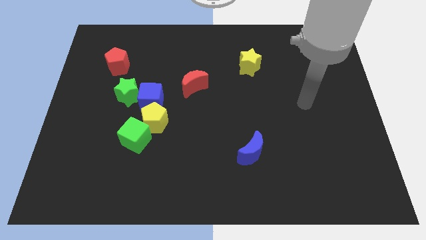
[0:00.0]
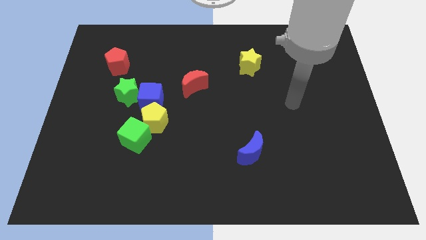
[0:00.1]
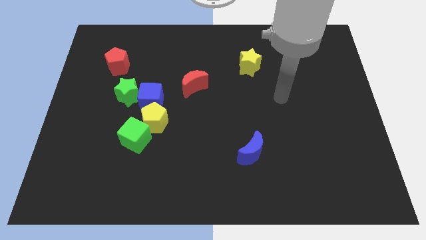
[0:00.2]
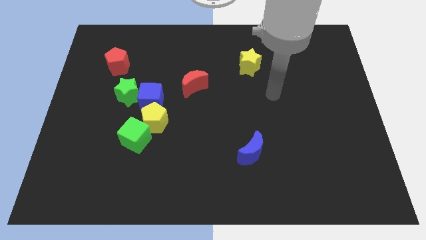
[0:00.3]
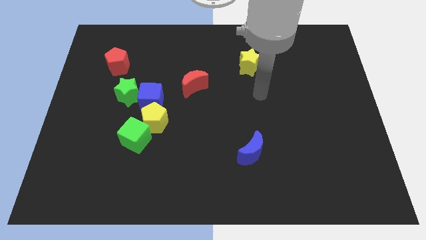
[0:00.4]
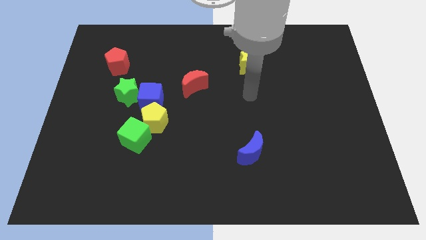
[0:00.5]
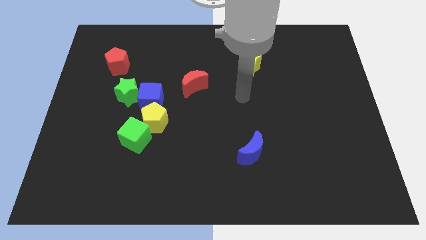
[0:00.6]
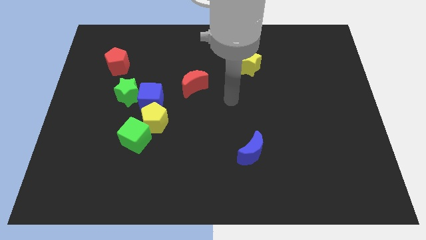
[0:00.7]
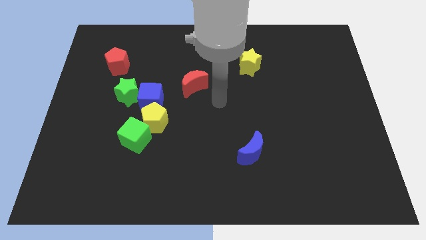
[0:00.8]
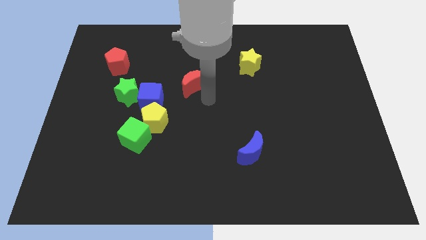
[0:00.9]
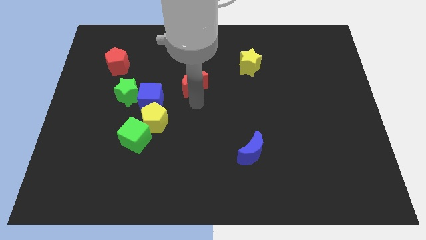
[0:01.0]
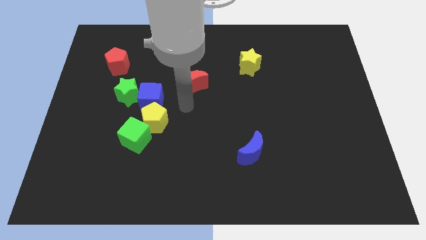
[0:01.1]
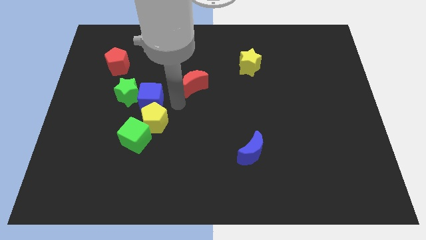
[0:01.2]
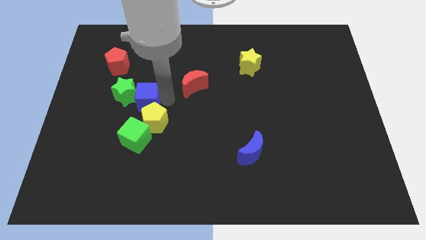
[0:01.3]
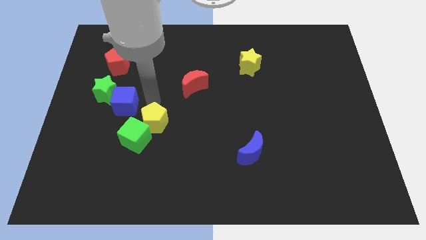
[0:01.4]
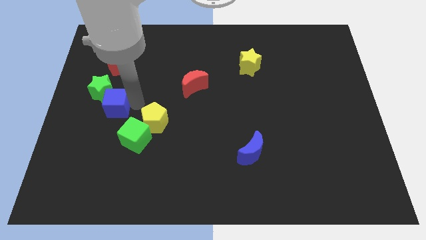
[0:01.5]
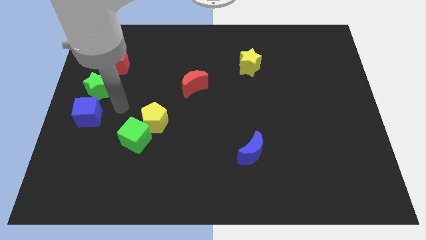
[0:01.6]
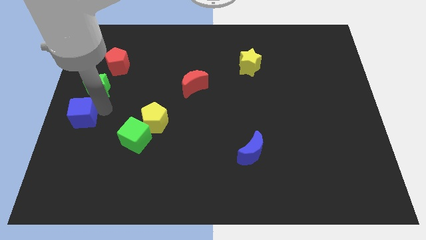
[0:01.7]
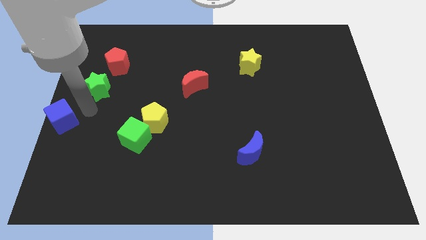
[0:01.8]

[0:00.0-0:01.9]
move the green star away from the blue cube

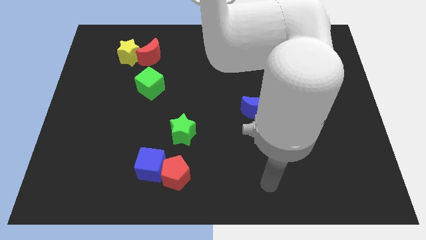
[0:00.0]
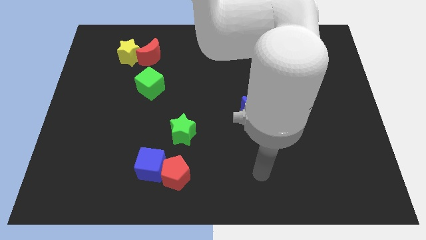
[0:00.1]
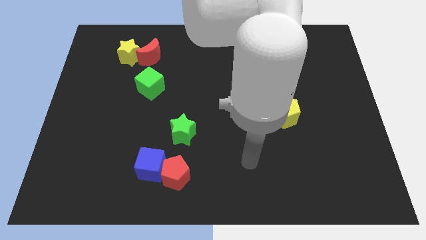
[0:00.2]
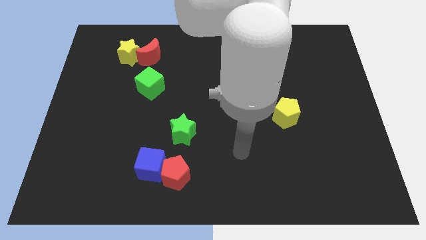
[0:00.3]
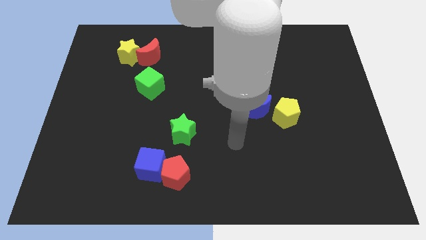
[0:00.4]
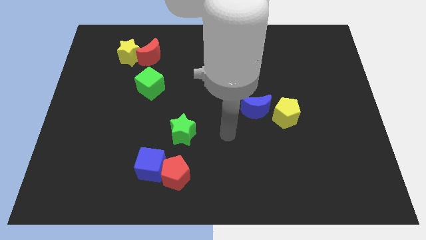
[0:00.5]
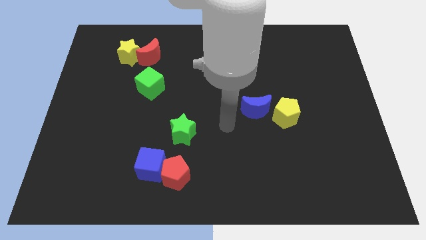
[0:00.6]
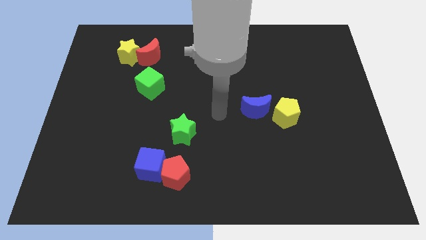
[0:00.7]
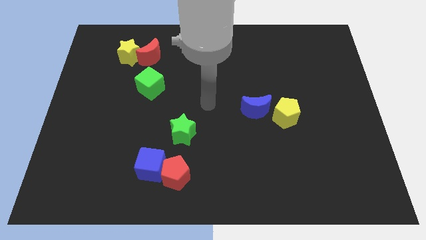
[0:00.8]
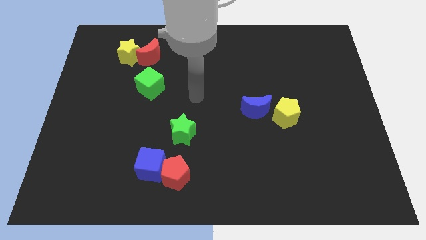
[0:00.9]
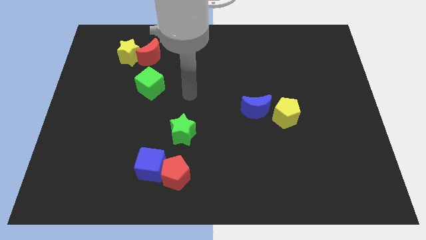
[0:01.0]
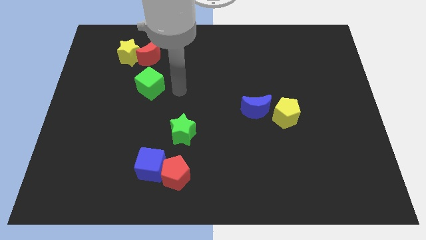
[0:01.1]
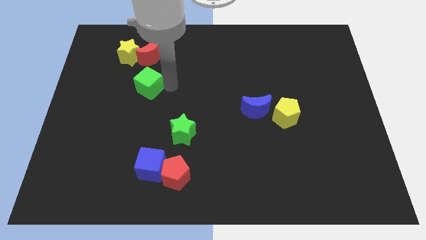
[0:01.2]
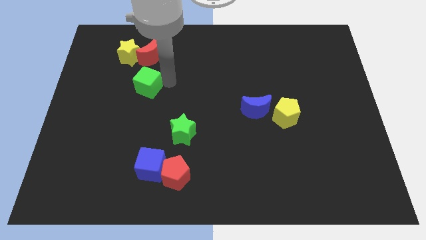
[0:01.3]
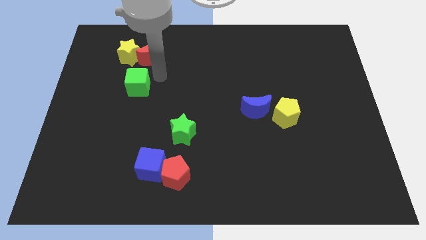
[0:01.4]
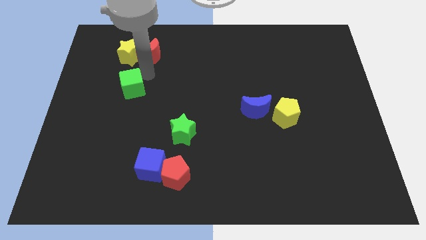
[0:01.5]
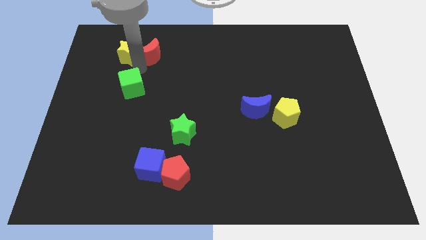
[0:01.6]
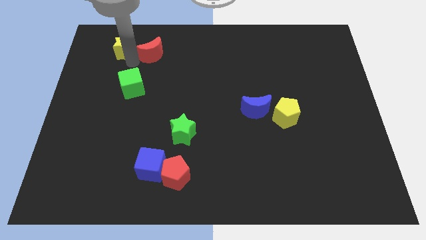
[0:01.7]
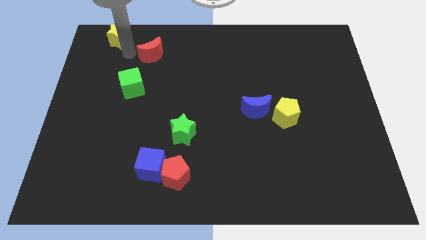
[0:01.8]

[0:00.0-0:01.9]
pull the red moon apart from the yellow star

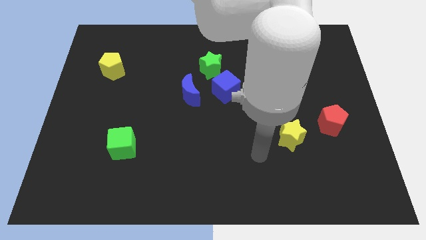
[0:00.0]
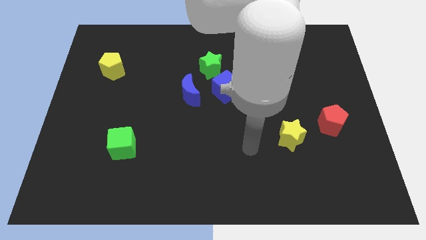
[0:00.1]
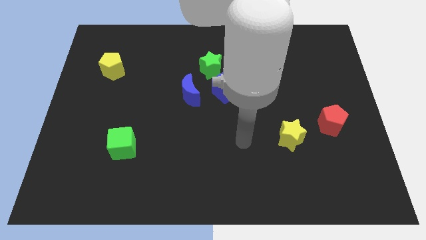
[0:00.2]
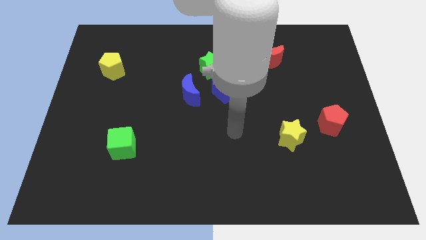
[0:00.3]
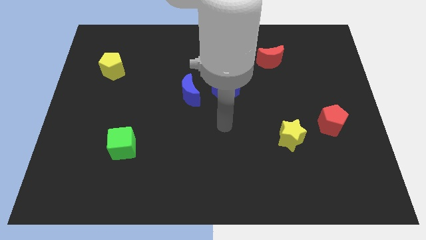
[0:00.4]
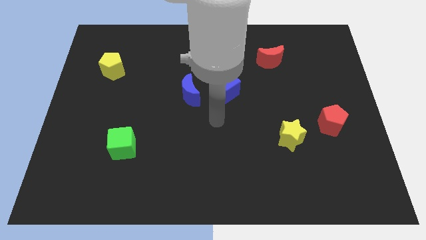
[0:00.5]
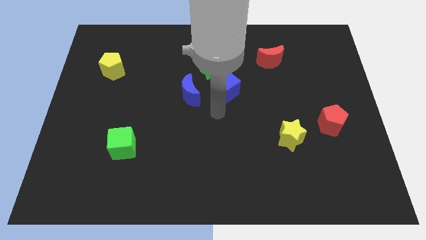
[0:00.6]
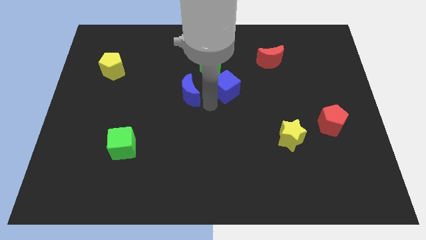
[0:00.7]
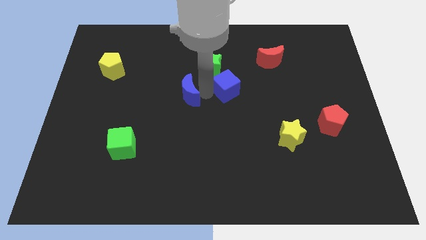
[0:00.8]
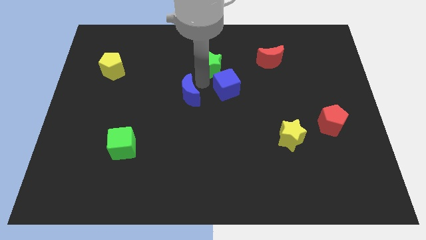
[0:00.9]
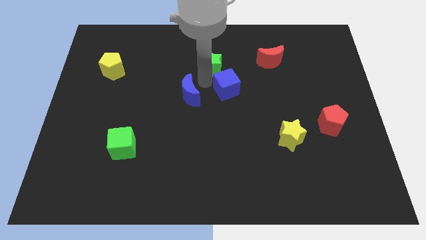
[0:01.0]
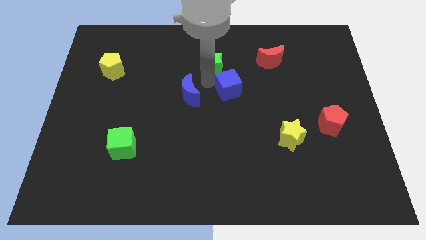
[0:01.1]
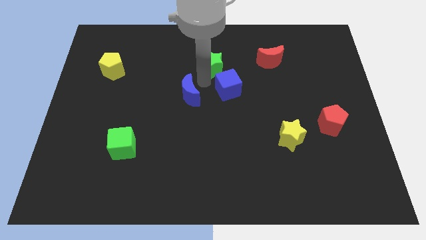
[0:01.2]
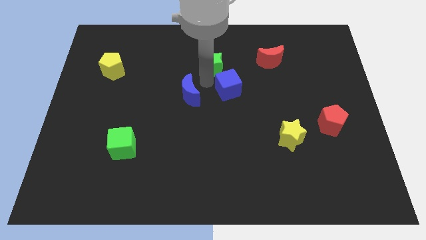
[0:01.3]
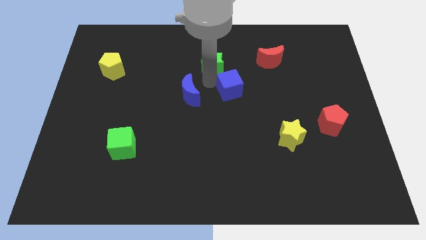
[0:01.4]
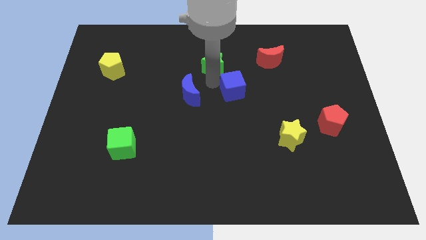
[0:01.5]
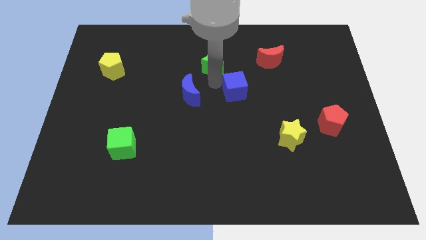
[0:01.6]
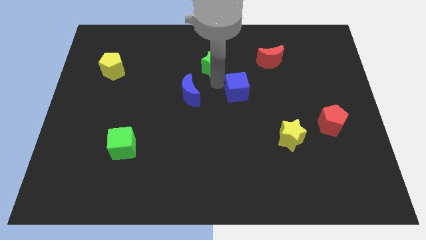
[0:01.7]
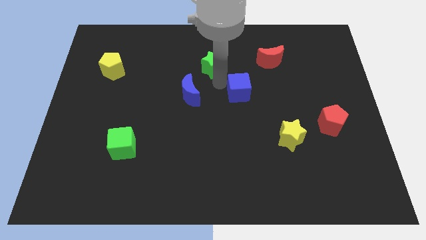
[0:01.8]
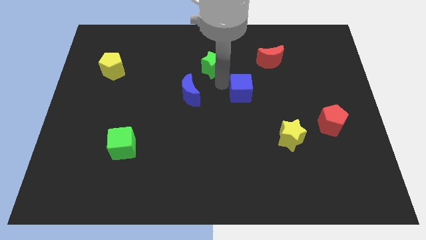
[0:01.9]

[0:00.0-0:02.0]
separate the blue cube from the green star and blue moon

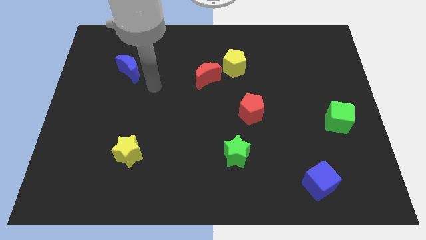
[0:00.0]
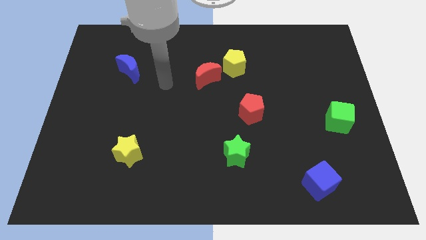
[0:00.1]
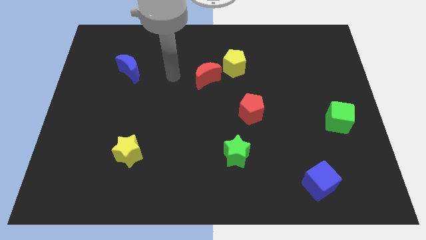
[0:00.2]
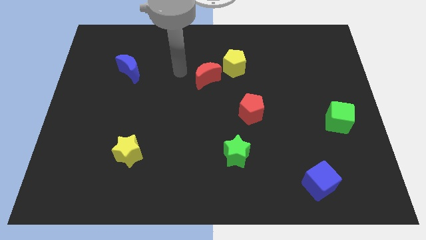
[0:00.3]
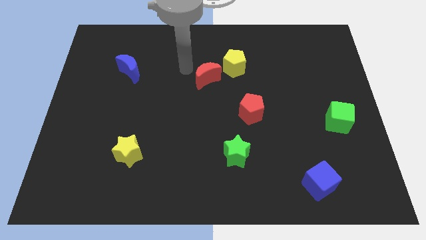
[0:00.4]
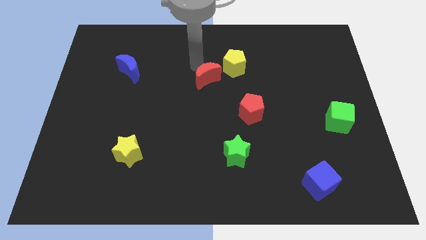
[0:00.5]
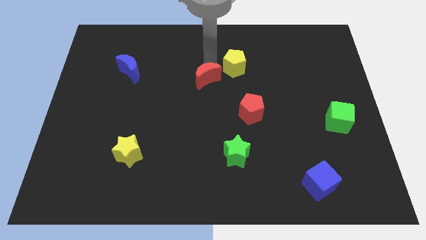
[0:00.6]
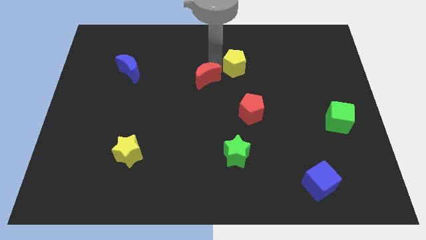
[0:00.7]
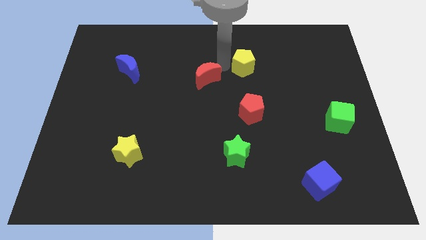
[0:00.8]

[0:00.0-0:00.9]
pull the red moon apart from the yellow pentagon

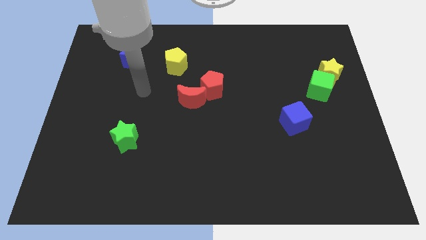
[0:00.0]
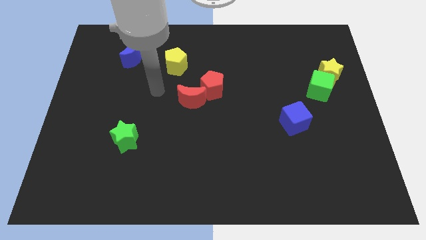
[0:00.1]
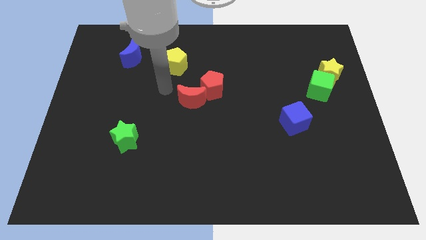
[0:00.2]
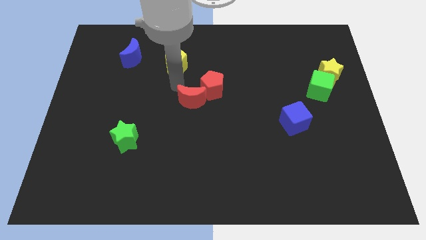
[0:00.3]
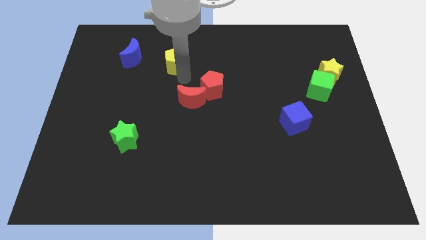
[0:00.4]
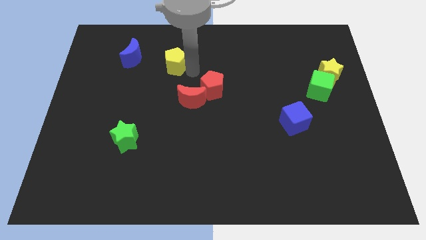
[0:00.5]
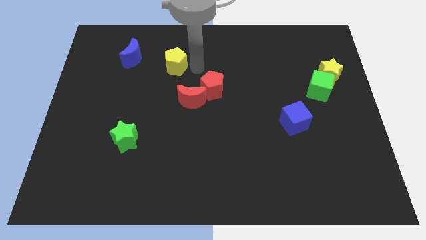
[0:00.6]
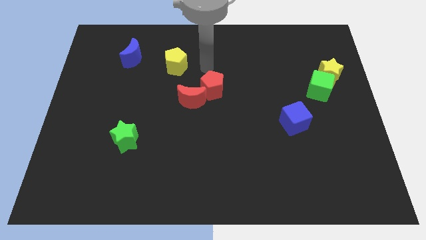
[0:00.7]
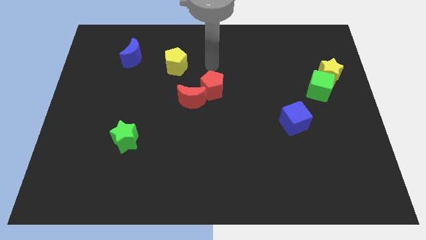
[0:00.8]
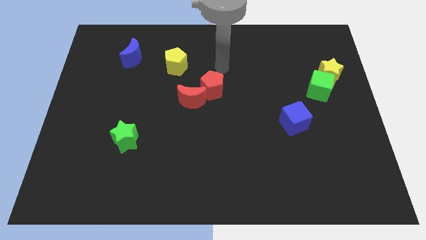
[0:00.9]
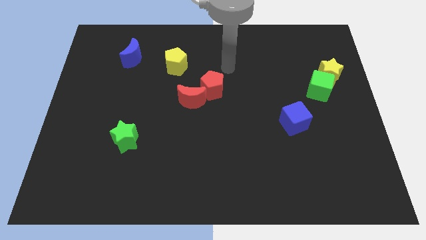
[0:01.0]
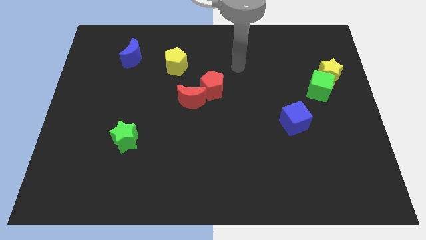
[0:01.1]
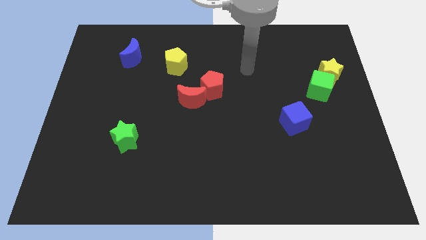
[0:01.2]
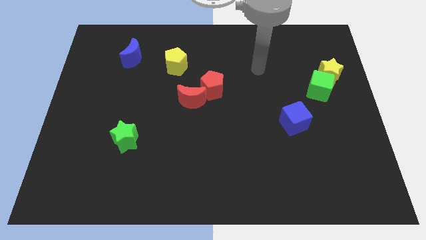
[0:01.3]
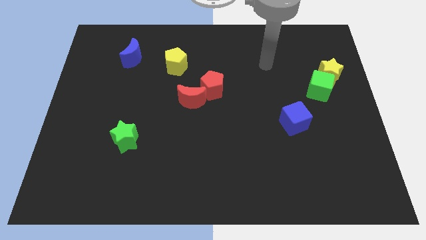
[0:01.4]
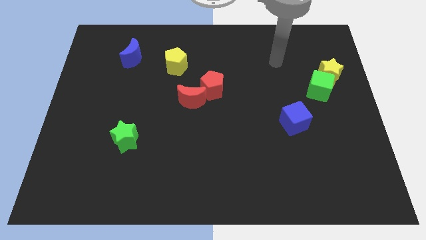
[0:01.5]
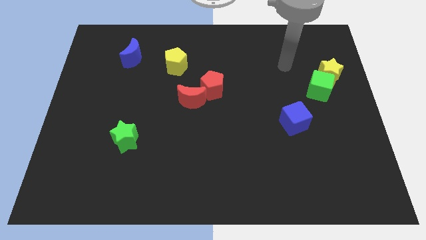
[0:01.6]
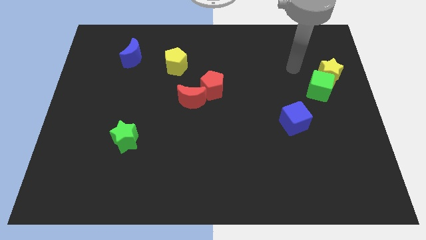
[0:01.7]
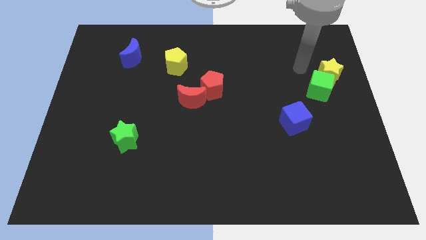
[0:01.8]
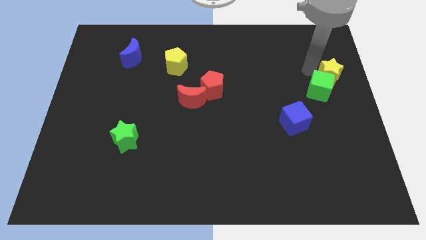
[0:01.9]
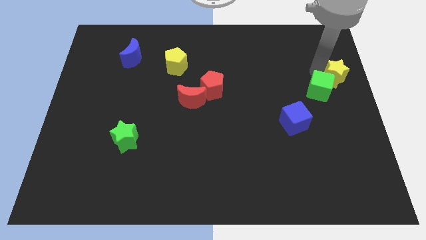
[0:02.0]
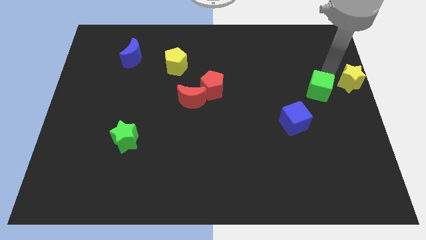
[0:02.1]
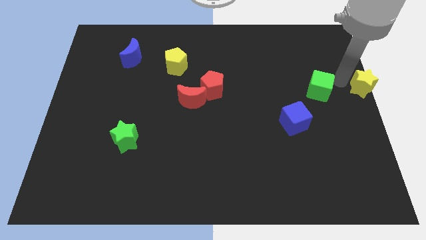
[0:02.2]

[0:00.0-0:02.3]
pull the green cube apart from the yellow star

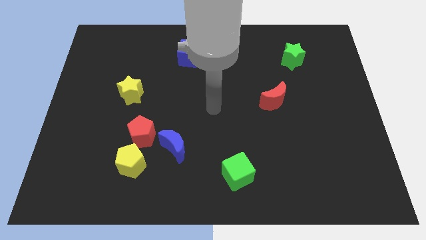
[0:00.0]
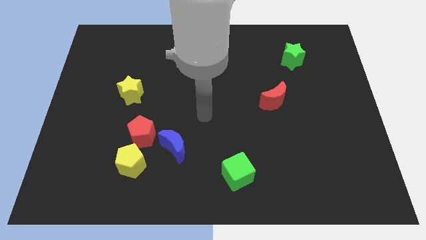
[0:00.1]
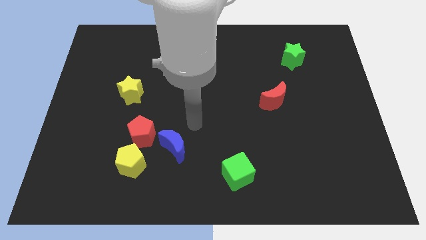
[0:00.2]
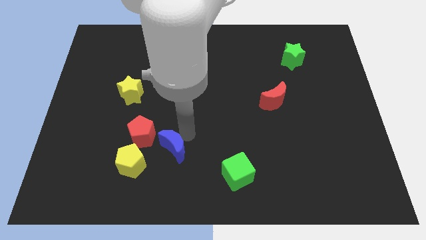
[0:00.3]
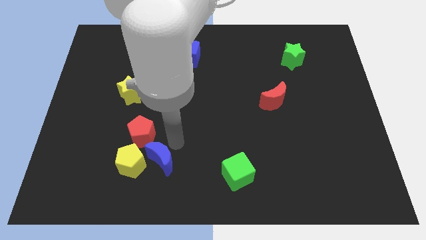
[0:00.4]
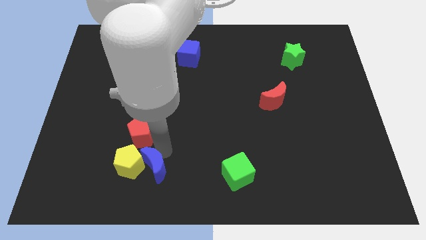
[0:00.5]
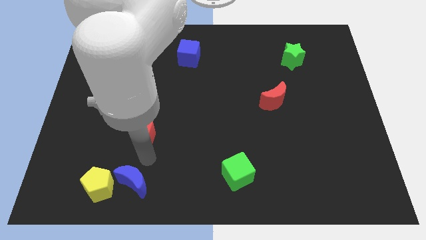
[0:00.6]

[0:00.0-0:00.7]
move the red pentagon away from the yellow pentagon and blue moon
